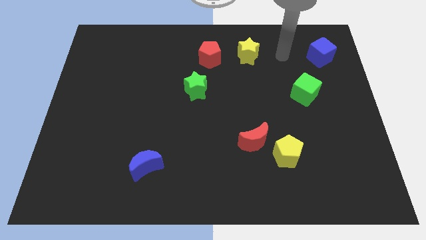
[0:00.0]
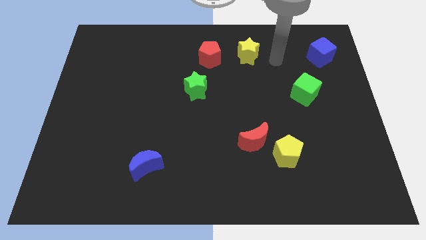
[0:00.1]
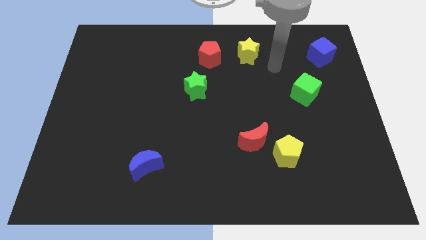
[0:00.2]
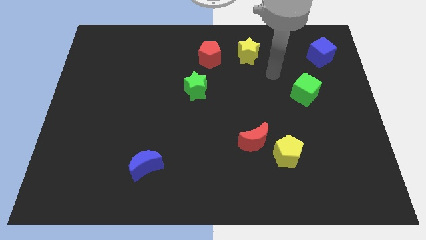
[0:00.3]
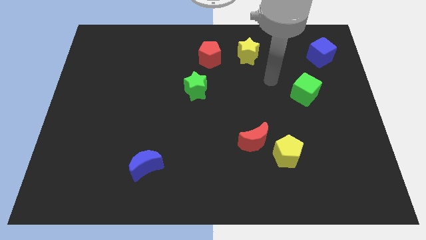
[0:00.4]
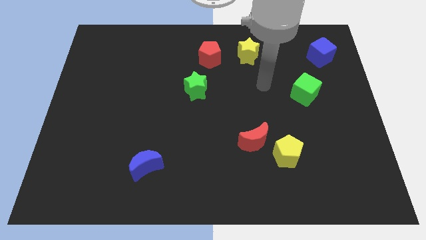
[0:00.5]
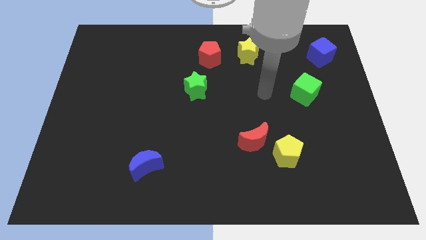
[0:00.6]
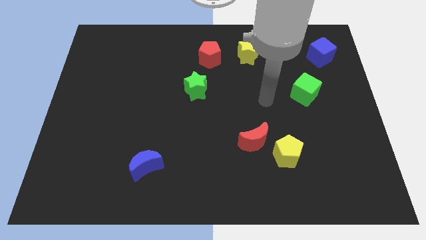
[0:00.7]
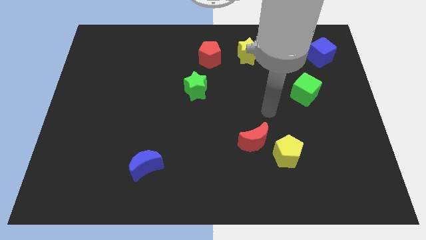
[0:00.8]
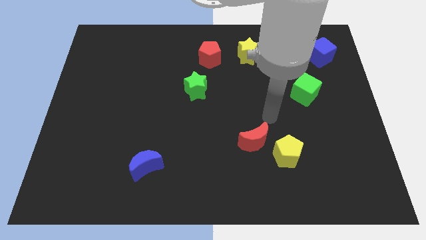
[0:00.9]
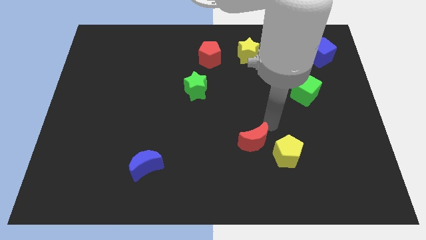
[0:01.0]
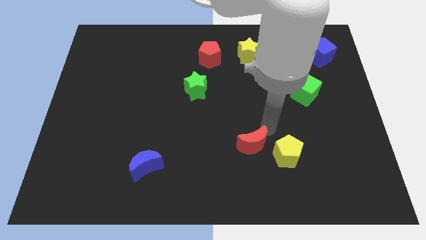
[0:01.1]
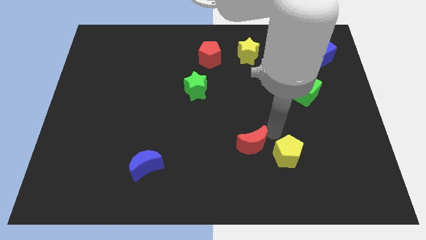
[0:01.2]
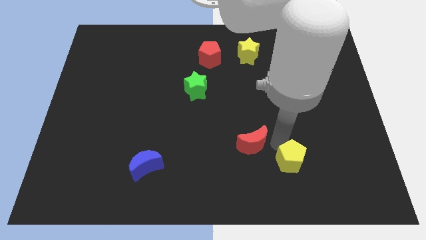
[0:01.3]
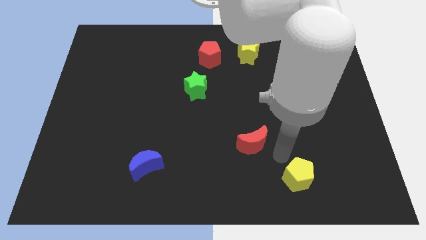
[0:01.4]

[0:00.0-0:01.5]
separate the red moon from the yellow pentagon

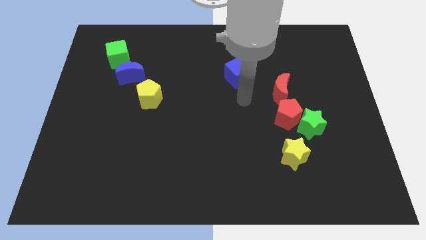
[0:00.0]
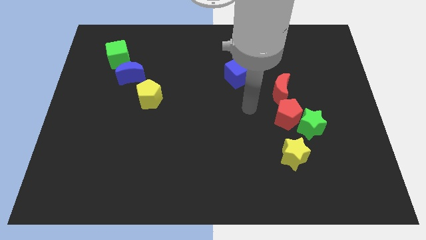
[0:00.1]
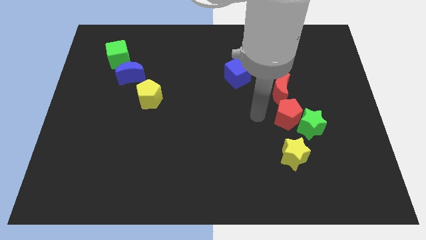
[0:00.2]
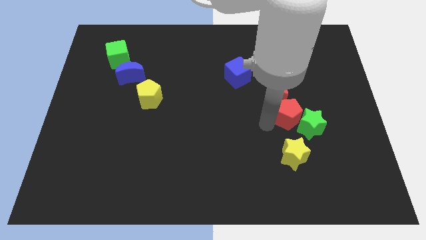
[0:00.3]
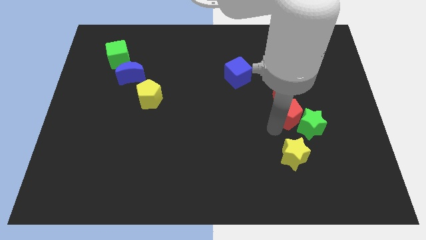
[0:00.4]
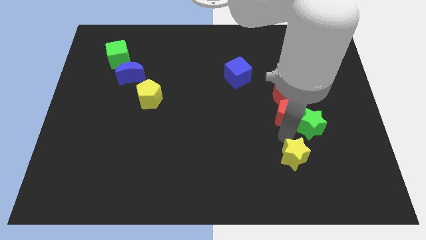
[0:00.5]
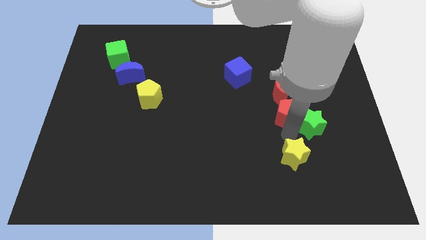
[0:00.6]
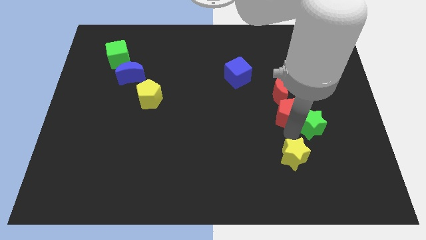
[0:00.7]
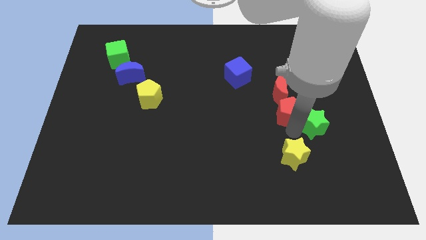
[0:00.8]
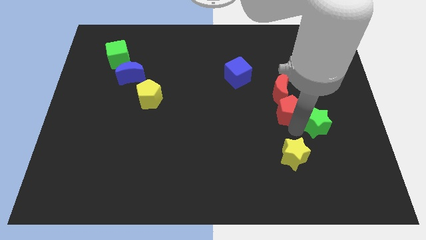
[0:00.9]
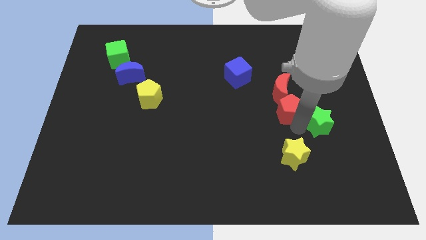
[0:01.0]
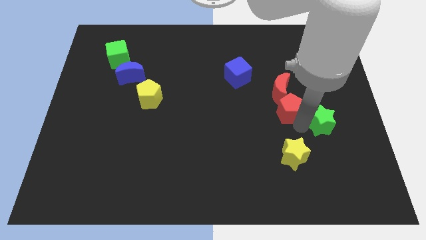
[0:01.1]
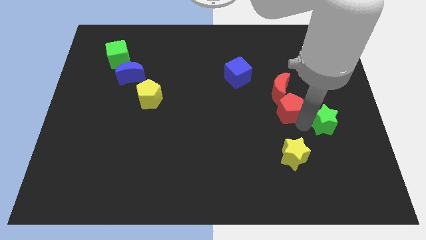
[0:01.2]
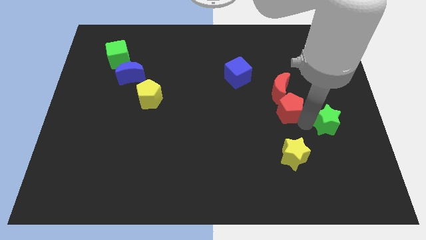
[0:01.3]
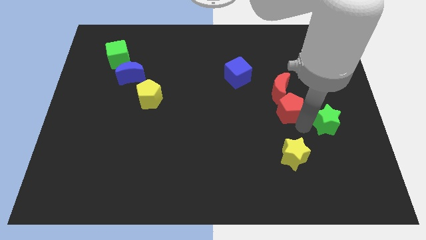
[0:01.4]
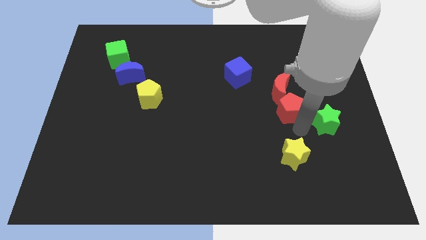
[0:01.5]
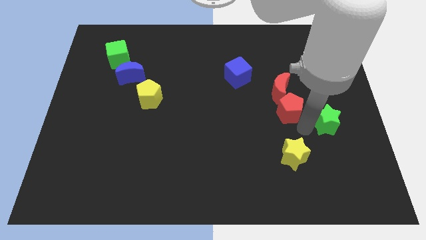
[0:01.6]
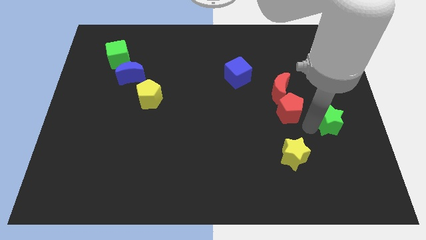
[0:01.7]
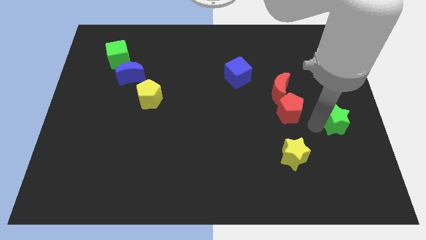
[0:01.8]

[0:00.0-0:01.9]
move the green star away from the red pentagon and yellow star

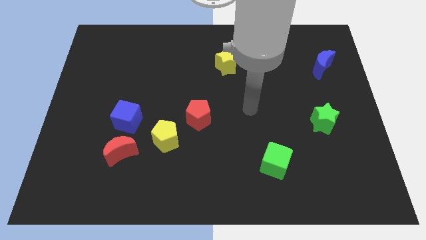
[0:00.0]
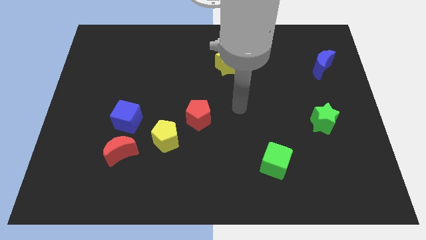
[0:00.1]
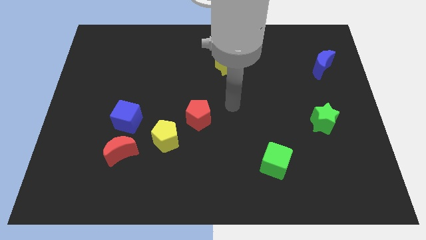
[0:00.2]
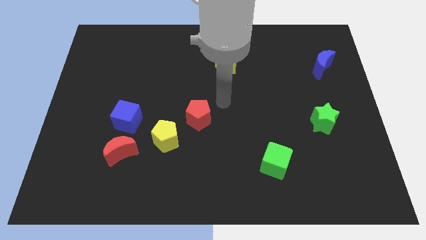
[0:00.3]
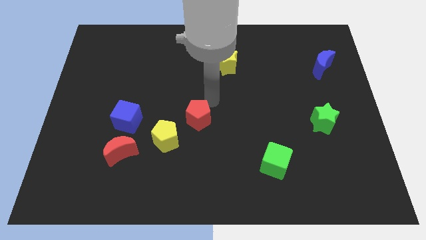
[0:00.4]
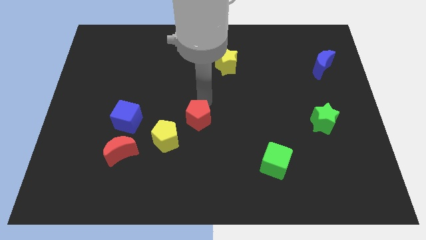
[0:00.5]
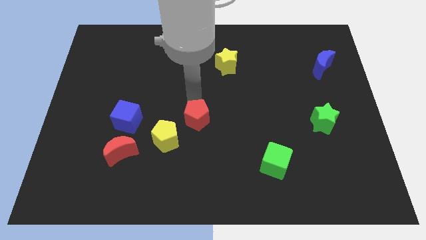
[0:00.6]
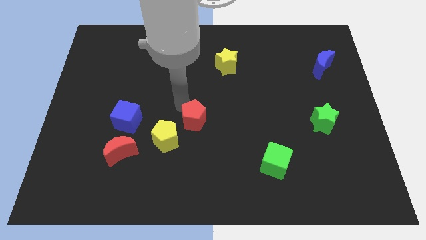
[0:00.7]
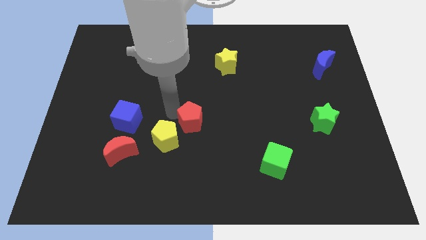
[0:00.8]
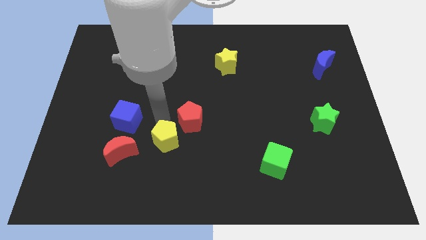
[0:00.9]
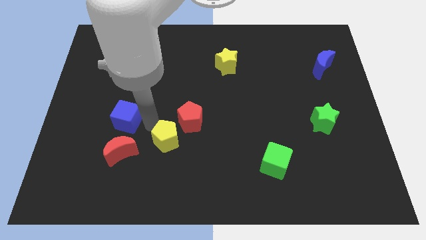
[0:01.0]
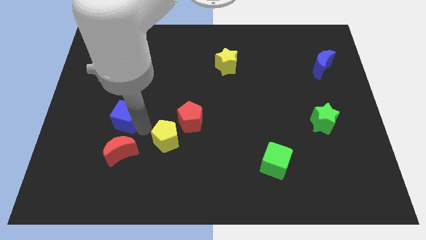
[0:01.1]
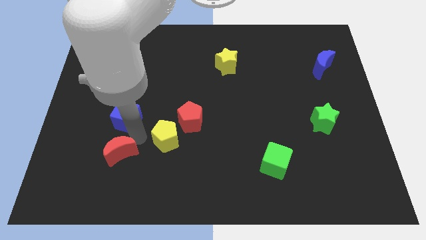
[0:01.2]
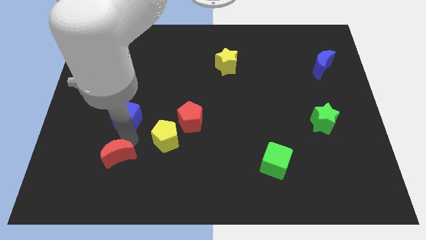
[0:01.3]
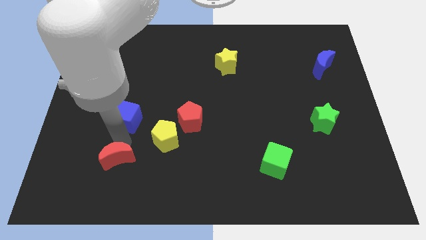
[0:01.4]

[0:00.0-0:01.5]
separate the blue cube from the red moon

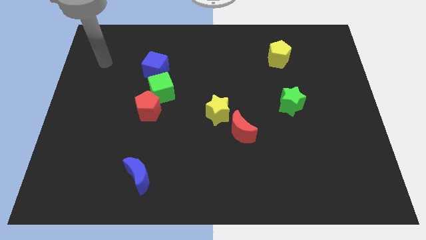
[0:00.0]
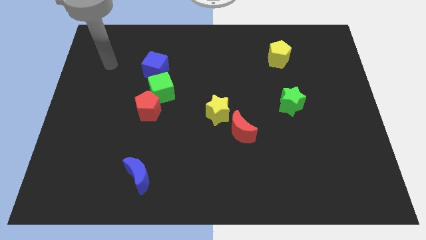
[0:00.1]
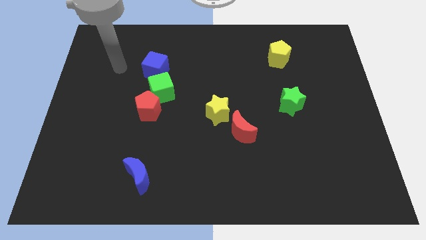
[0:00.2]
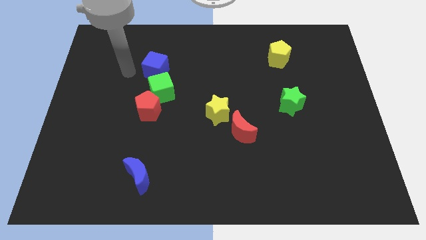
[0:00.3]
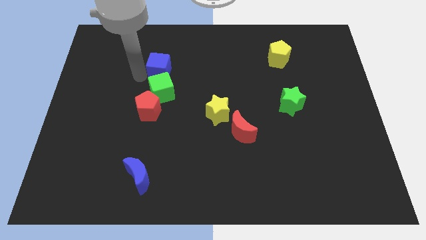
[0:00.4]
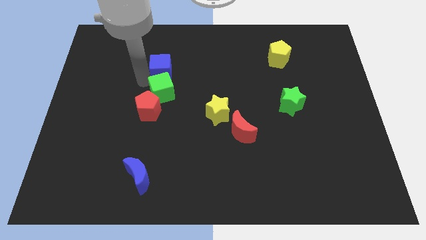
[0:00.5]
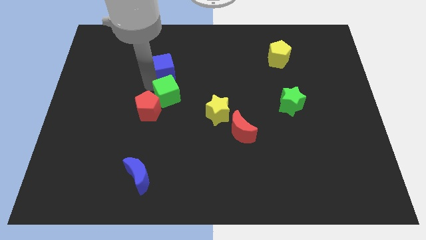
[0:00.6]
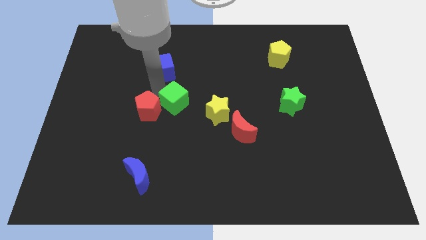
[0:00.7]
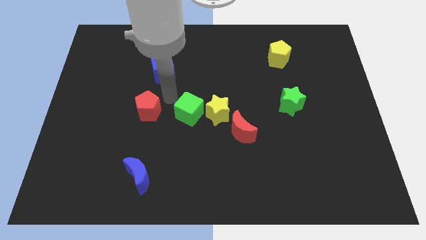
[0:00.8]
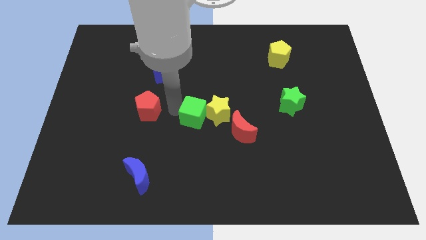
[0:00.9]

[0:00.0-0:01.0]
move the red pentagon away from the green cube

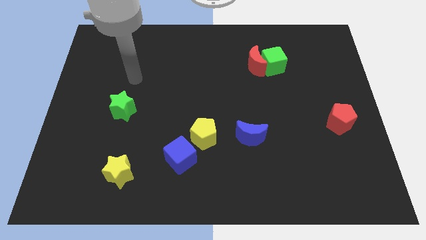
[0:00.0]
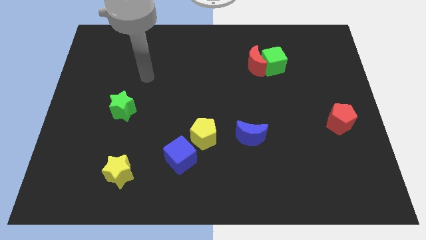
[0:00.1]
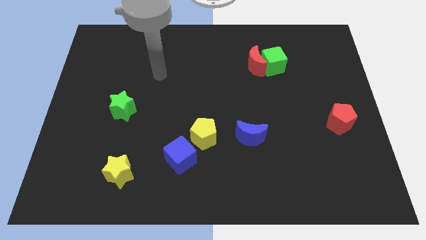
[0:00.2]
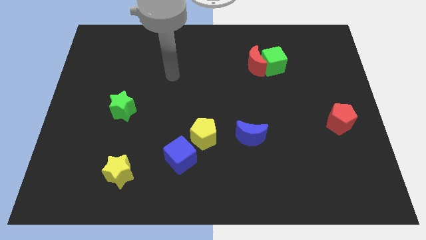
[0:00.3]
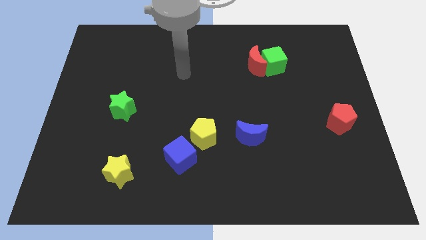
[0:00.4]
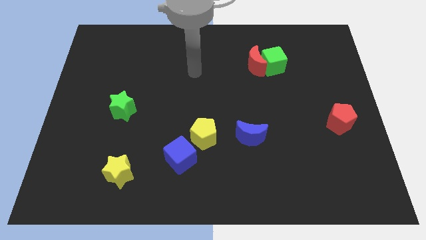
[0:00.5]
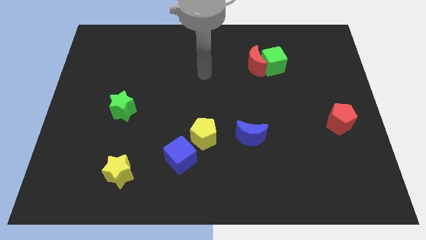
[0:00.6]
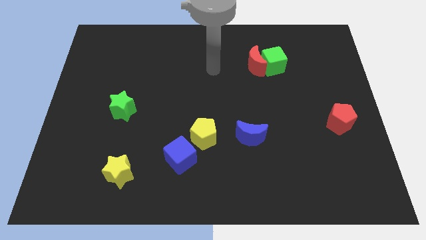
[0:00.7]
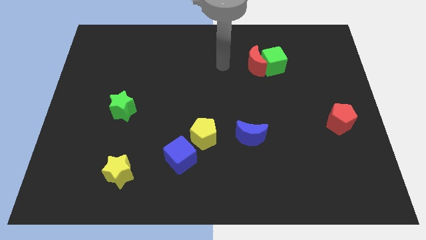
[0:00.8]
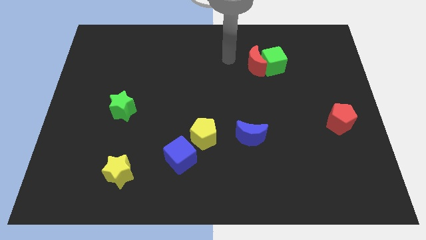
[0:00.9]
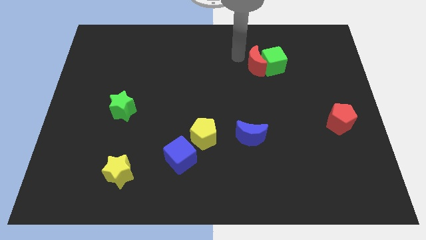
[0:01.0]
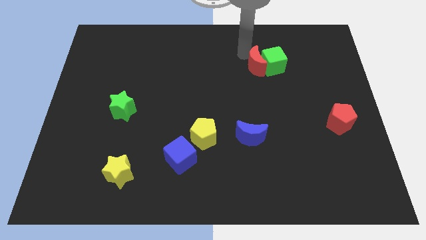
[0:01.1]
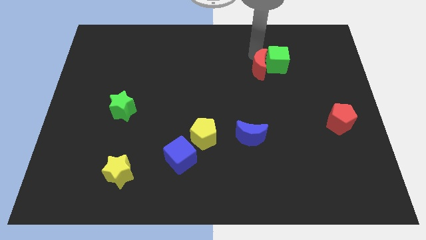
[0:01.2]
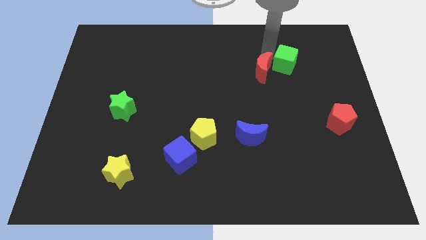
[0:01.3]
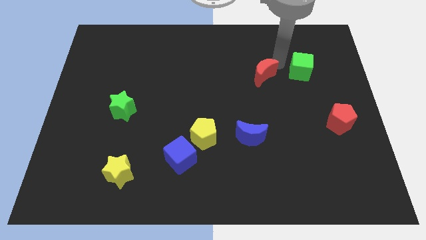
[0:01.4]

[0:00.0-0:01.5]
pull the red moon apart from the green cube

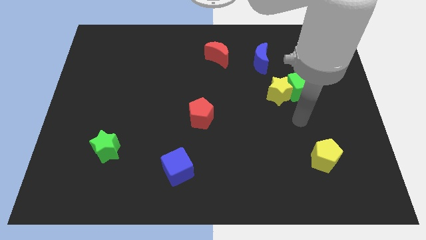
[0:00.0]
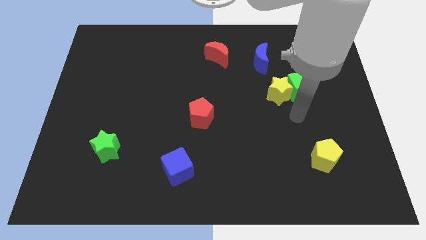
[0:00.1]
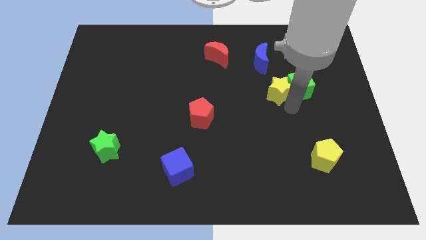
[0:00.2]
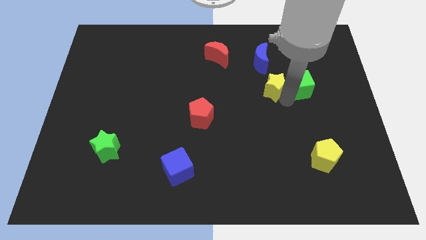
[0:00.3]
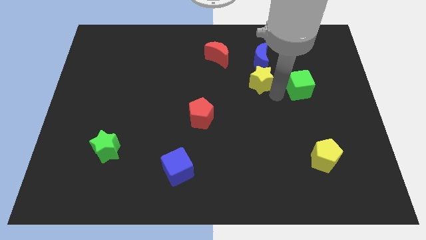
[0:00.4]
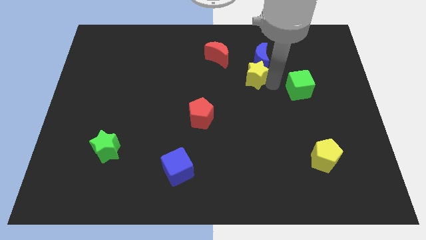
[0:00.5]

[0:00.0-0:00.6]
separate the green cube from the yellow star

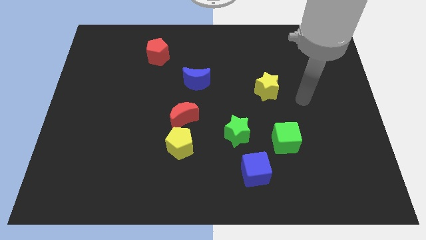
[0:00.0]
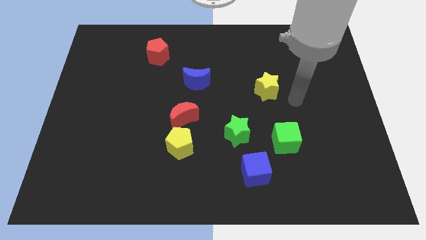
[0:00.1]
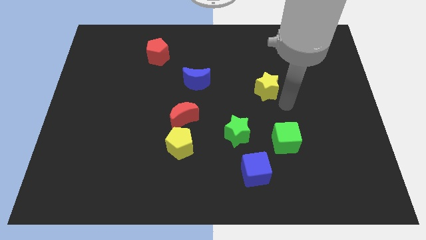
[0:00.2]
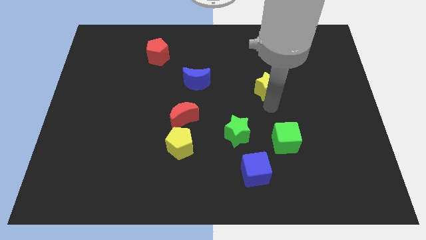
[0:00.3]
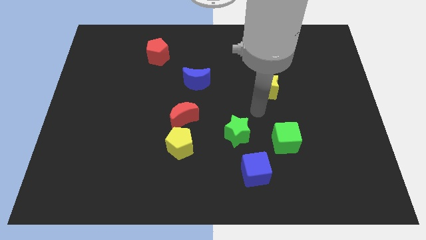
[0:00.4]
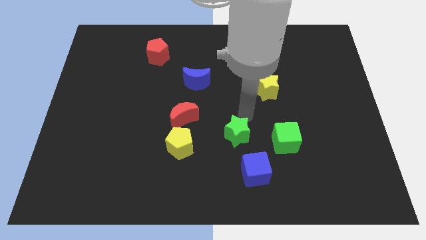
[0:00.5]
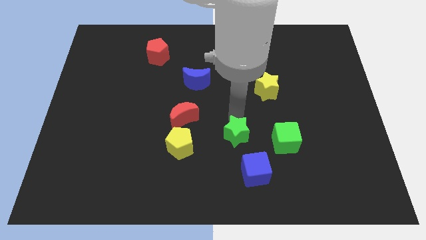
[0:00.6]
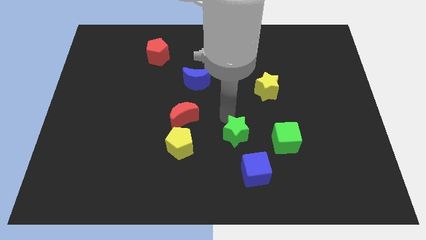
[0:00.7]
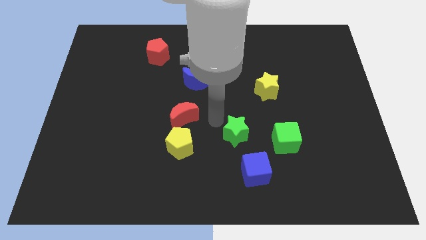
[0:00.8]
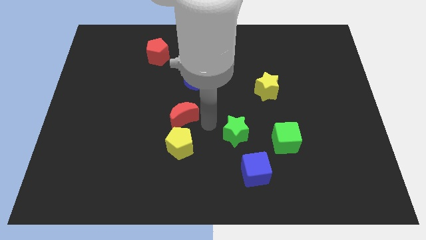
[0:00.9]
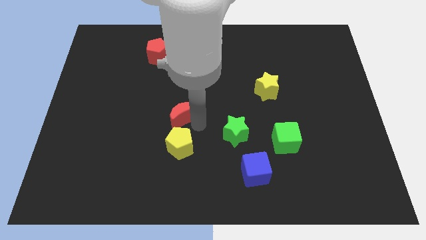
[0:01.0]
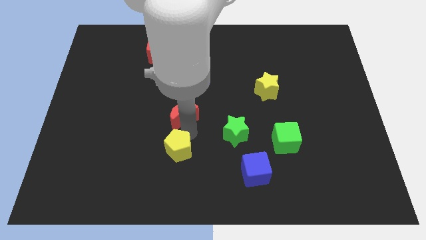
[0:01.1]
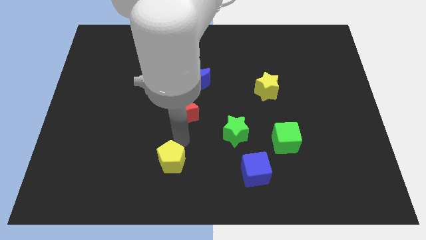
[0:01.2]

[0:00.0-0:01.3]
move the red moon away from the yellow pentagon
